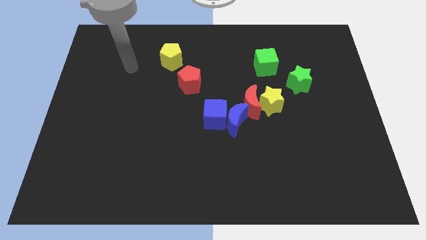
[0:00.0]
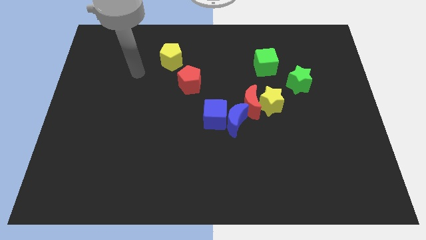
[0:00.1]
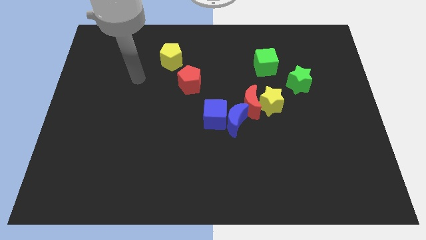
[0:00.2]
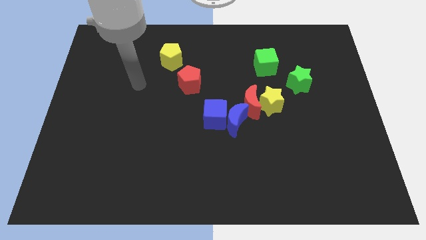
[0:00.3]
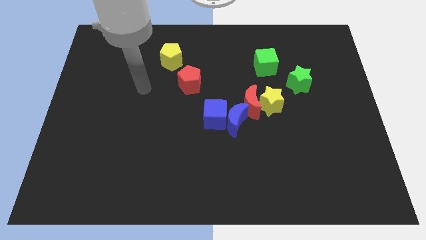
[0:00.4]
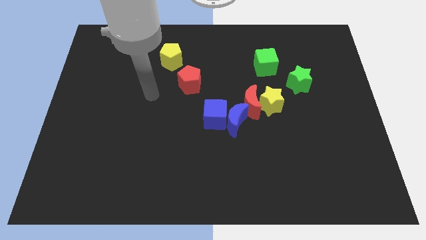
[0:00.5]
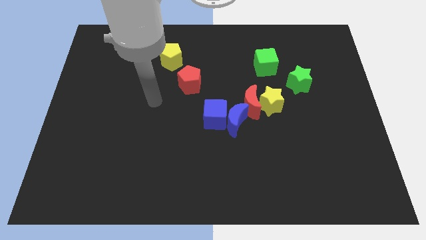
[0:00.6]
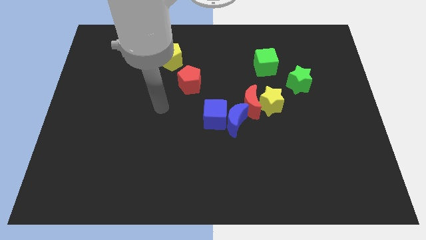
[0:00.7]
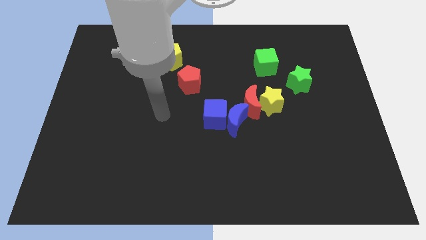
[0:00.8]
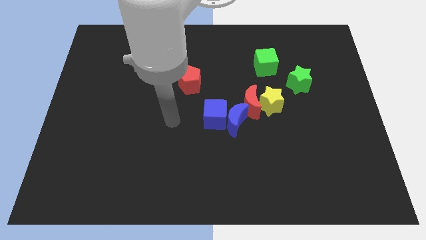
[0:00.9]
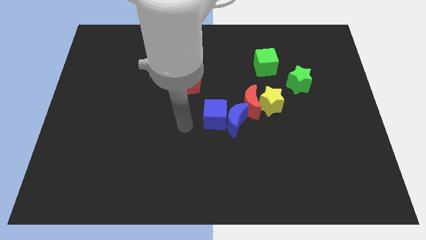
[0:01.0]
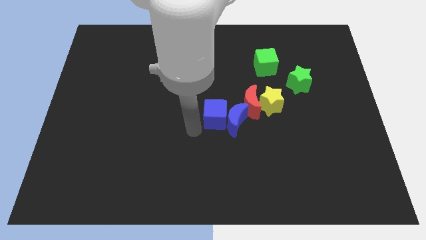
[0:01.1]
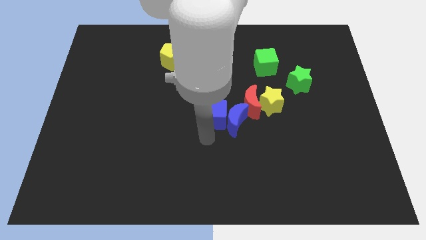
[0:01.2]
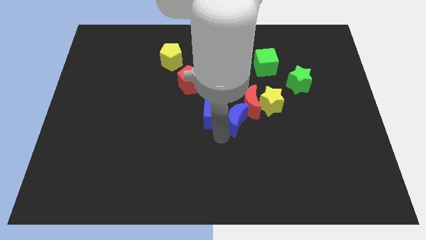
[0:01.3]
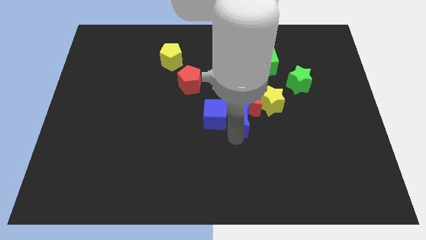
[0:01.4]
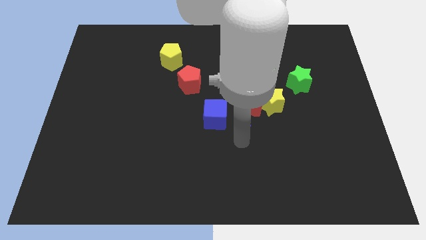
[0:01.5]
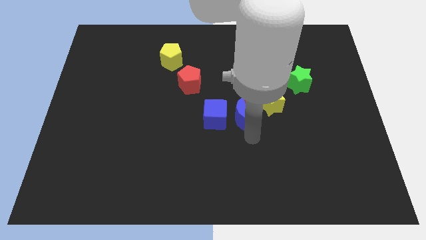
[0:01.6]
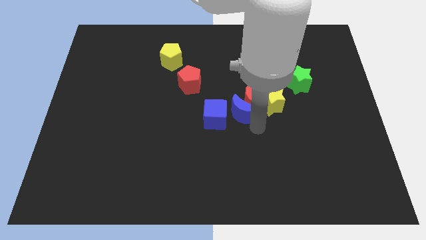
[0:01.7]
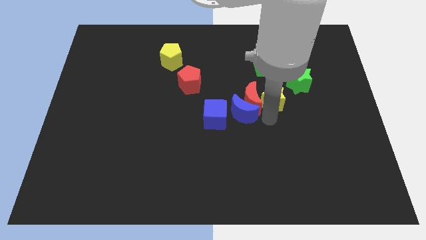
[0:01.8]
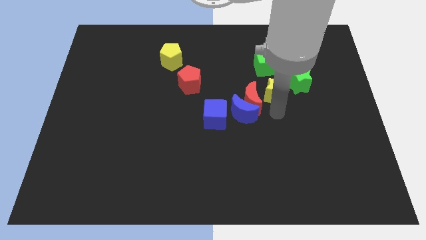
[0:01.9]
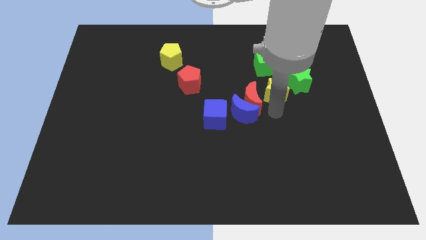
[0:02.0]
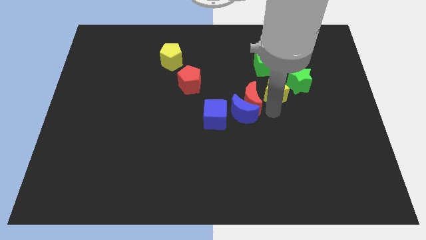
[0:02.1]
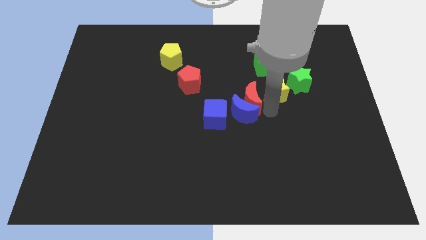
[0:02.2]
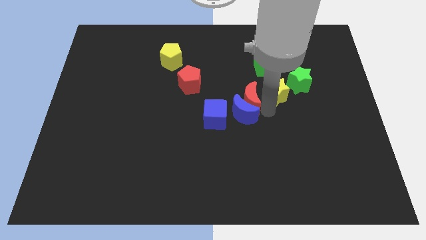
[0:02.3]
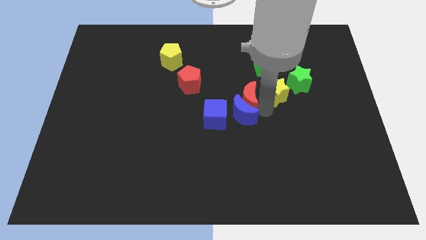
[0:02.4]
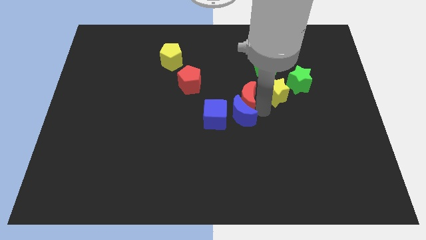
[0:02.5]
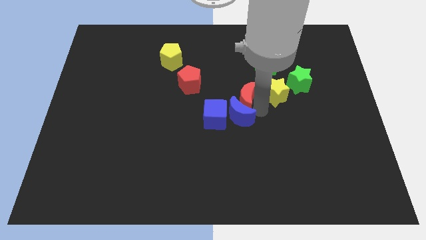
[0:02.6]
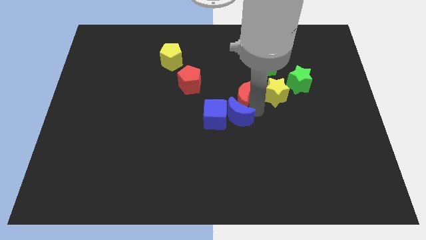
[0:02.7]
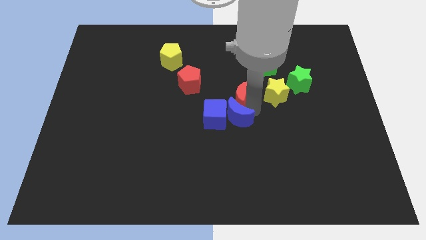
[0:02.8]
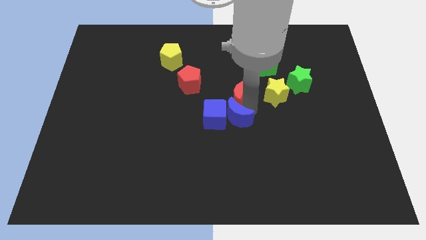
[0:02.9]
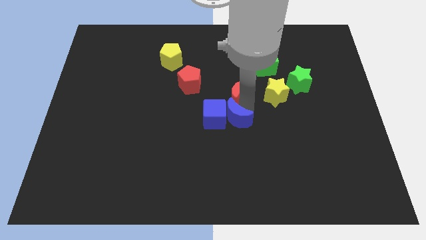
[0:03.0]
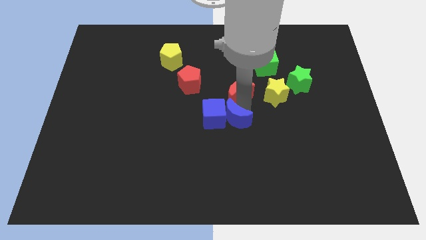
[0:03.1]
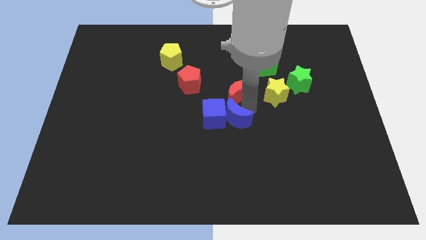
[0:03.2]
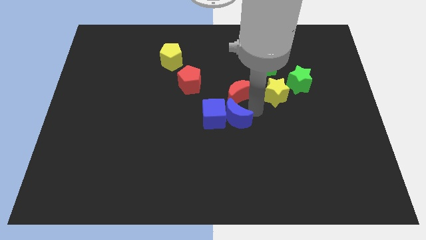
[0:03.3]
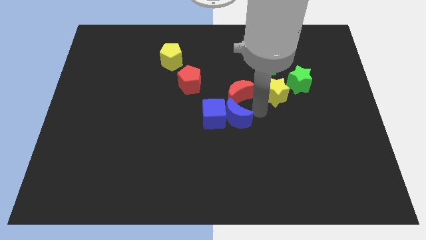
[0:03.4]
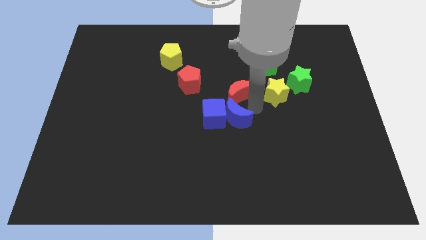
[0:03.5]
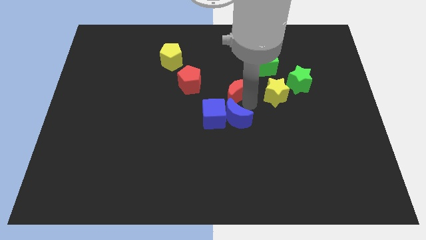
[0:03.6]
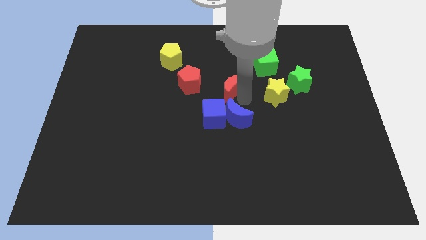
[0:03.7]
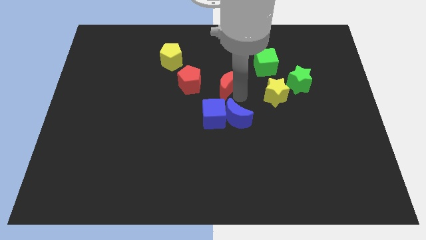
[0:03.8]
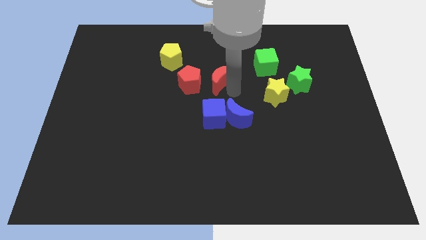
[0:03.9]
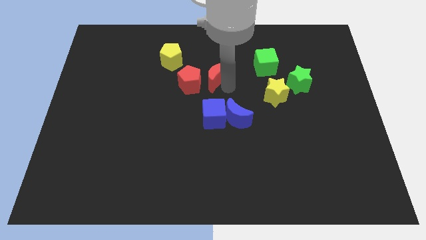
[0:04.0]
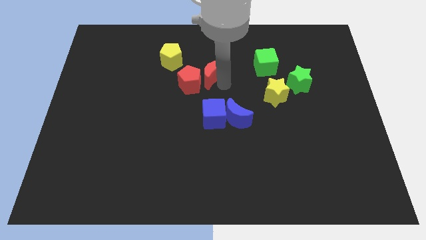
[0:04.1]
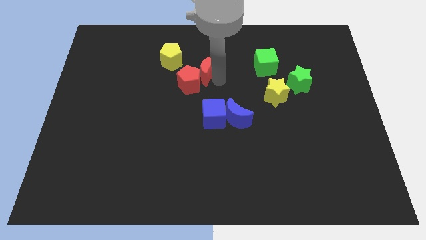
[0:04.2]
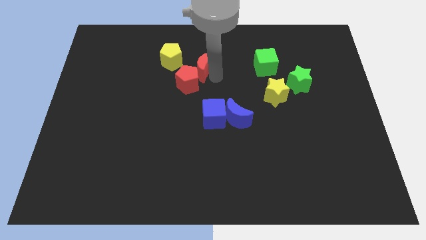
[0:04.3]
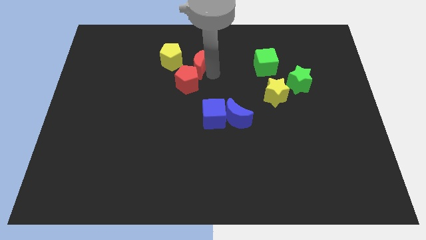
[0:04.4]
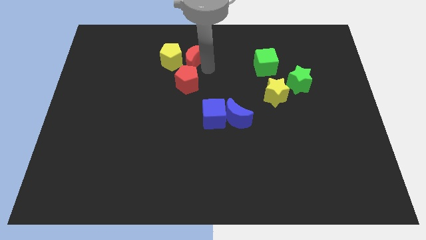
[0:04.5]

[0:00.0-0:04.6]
push the red moon next to the yellow pentagon

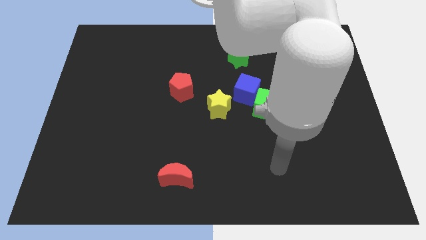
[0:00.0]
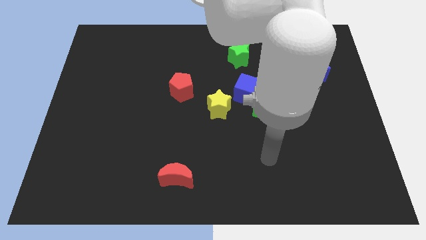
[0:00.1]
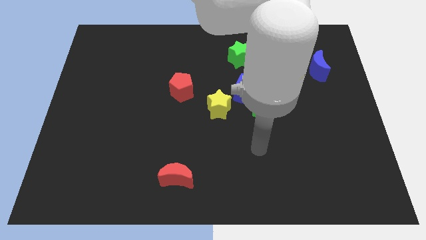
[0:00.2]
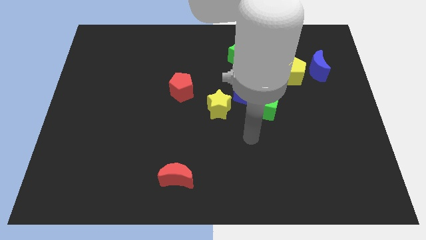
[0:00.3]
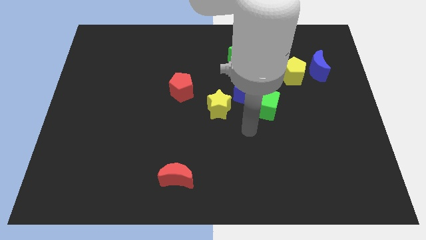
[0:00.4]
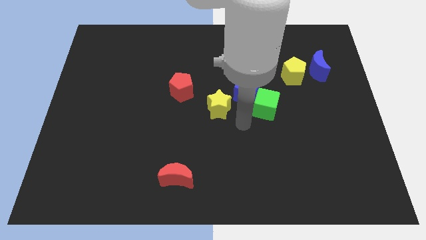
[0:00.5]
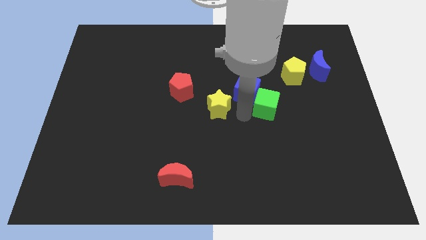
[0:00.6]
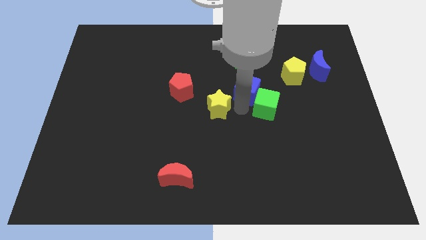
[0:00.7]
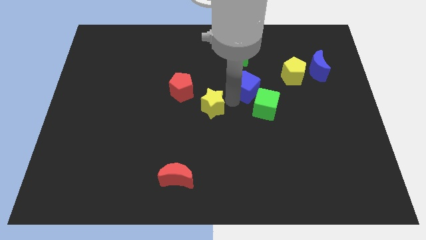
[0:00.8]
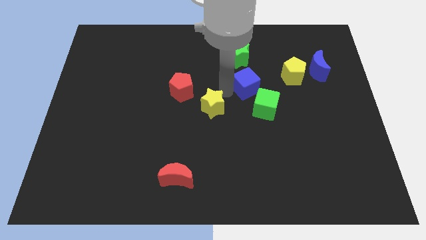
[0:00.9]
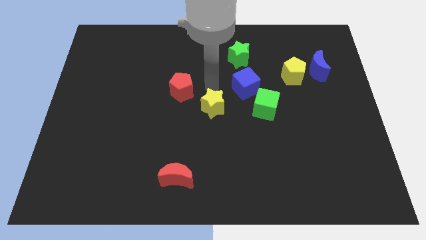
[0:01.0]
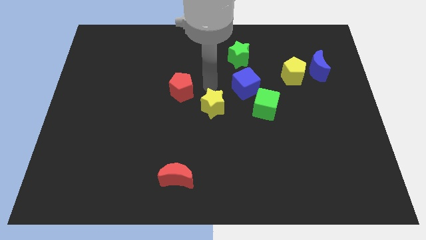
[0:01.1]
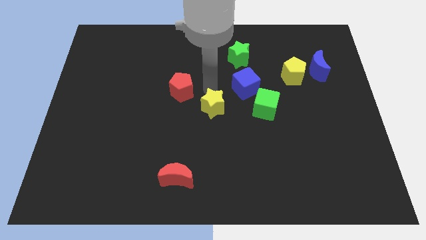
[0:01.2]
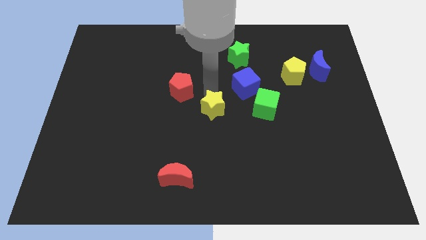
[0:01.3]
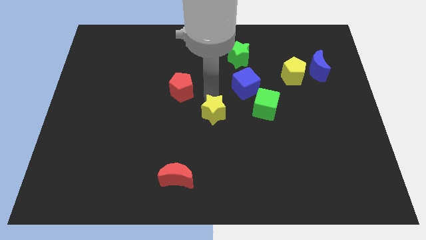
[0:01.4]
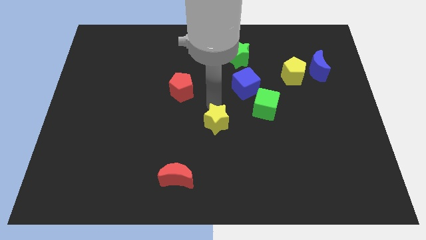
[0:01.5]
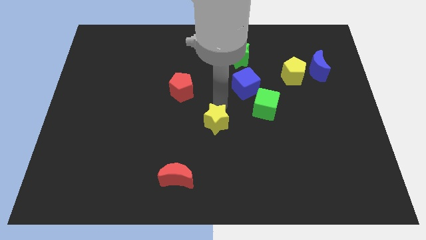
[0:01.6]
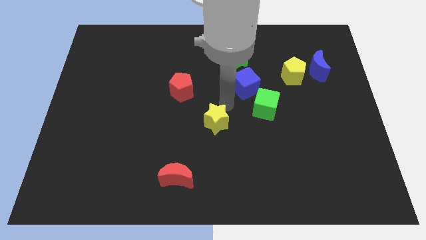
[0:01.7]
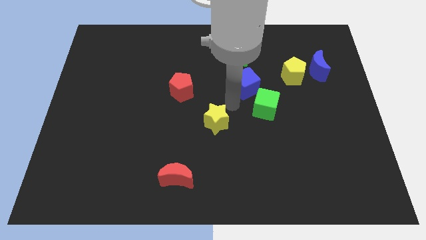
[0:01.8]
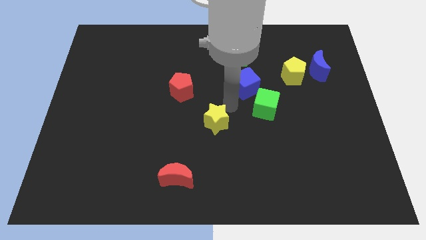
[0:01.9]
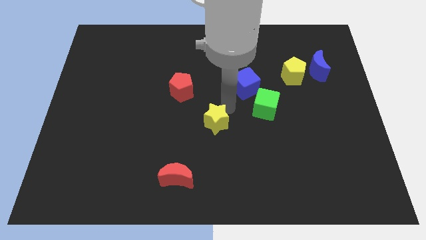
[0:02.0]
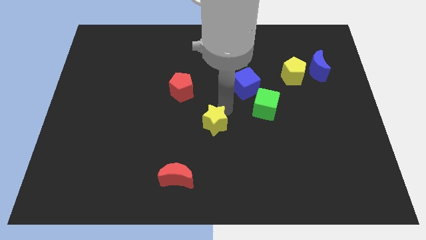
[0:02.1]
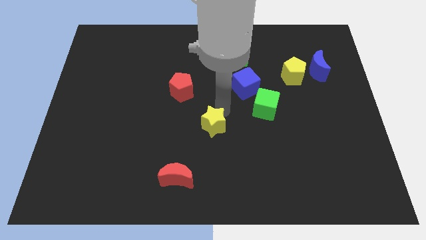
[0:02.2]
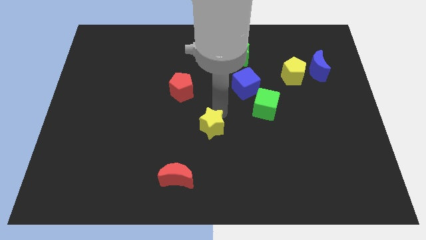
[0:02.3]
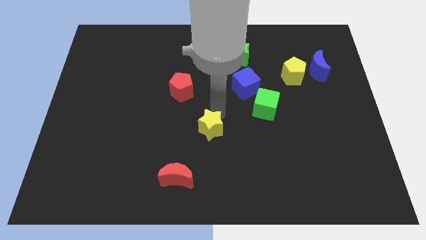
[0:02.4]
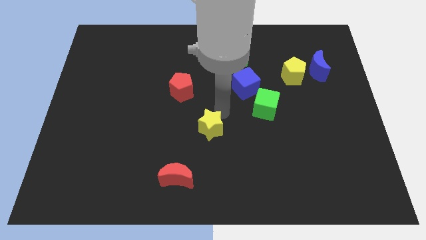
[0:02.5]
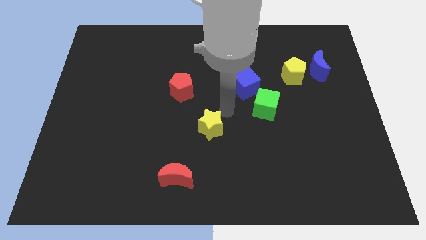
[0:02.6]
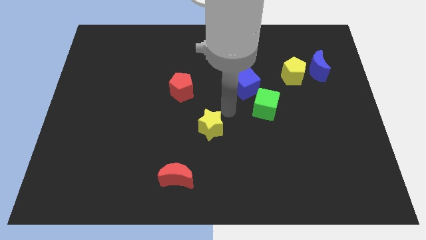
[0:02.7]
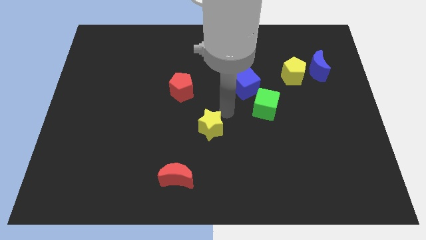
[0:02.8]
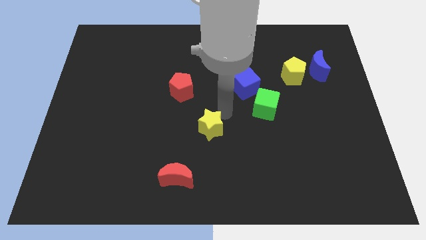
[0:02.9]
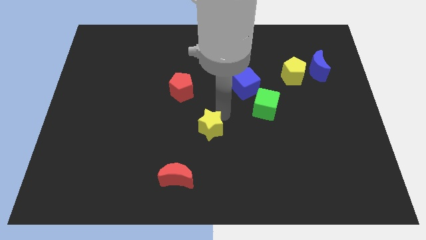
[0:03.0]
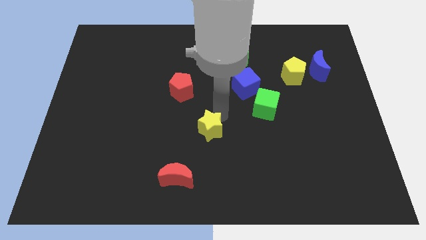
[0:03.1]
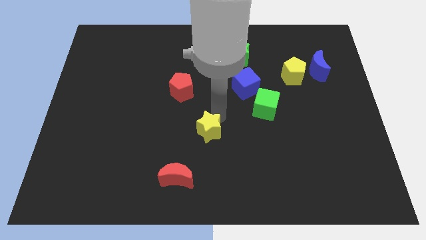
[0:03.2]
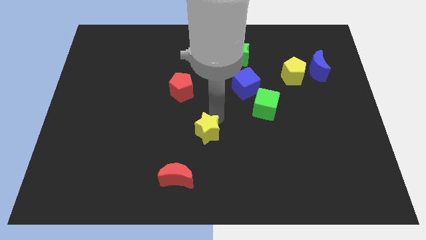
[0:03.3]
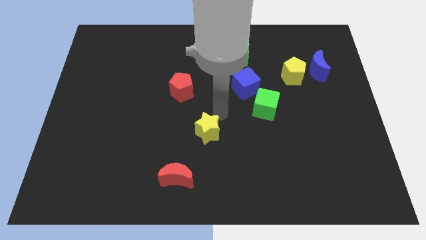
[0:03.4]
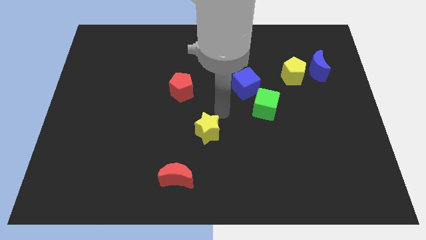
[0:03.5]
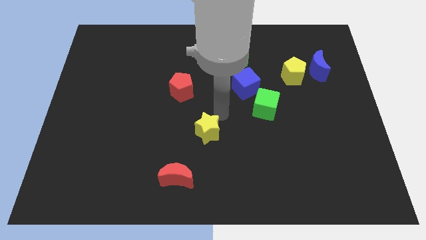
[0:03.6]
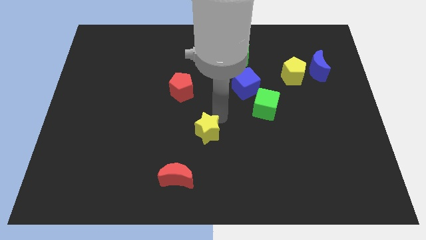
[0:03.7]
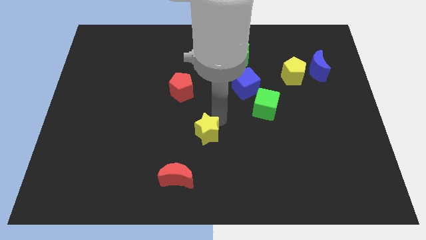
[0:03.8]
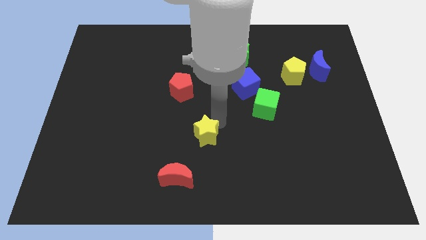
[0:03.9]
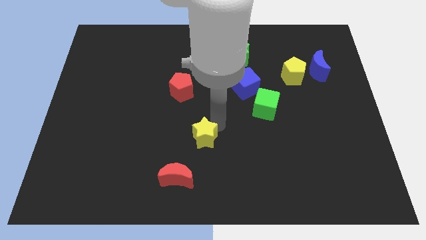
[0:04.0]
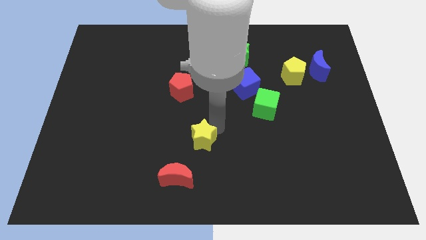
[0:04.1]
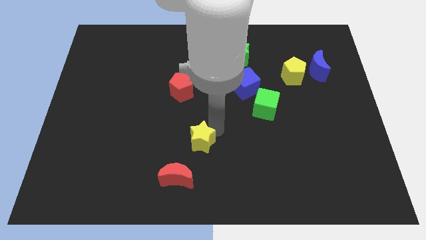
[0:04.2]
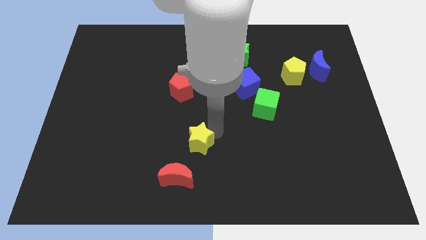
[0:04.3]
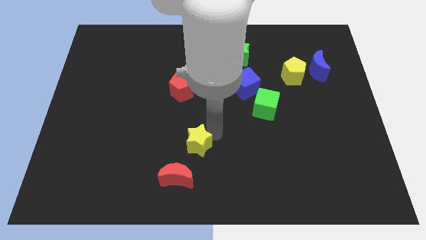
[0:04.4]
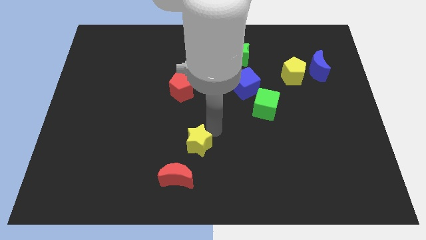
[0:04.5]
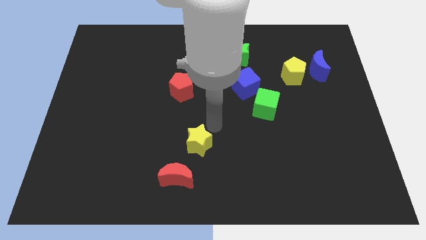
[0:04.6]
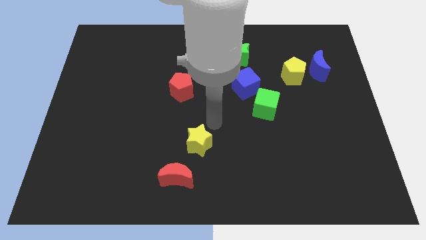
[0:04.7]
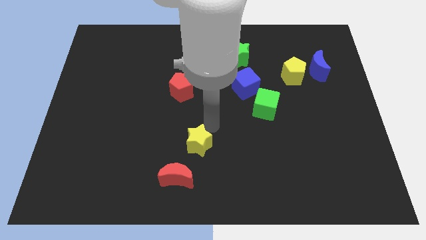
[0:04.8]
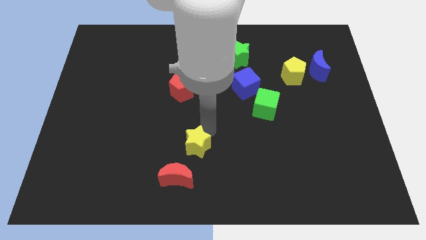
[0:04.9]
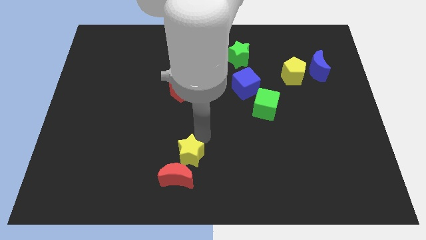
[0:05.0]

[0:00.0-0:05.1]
move the yellow star towards the red moon
